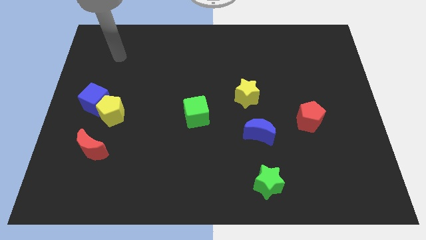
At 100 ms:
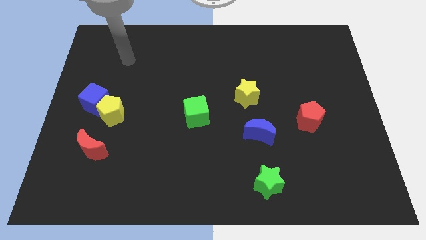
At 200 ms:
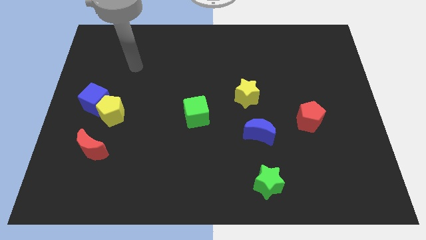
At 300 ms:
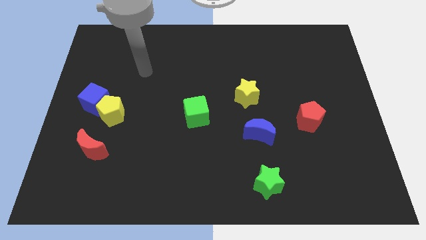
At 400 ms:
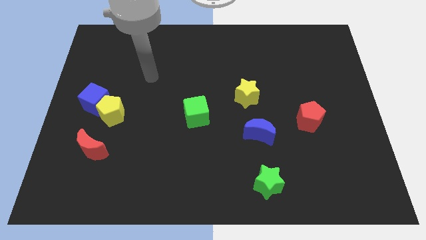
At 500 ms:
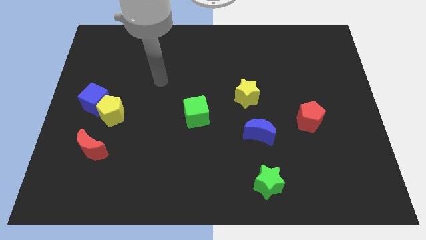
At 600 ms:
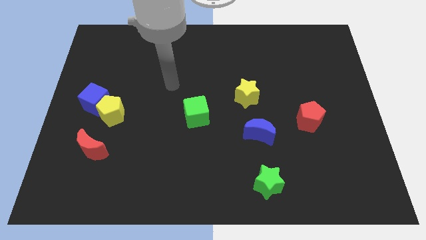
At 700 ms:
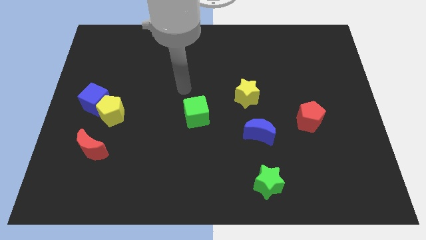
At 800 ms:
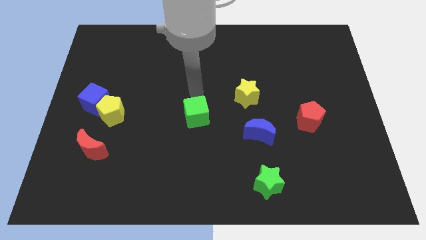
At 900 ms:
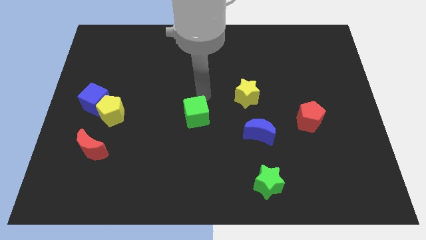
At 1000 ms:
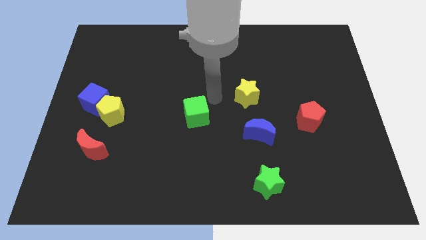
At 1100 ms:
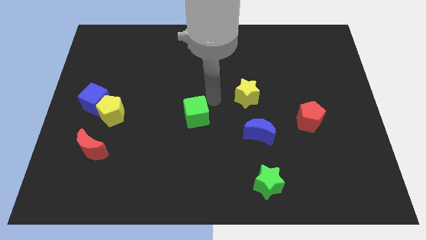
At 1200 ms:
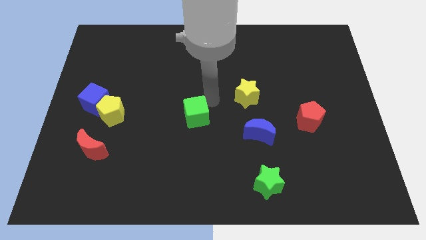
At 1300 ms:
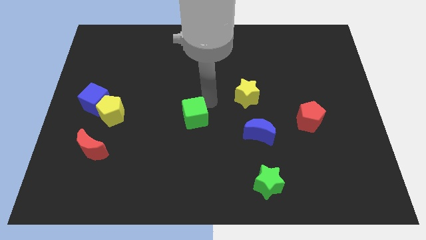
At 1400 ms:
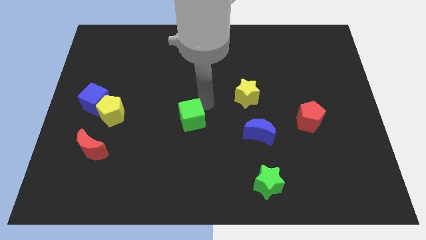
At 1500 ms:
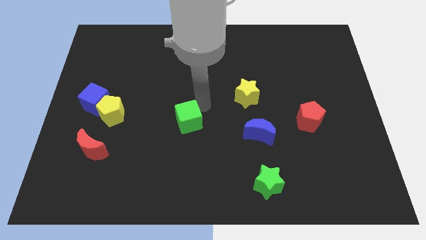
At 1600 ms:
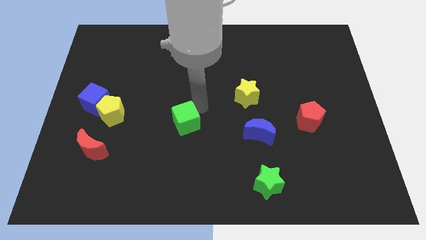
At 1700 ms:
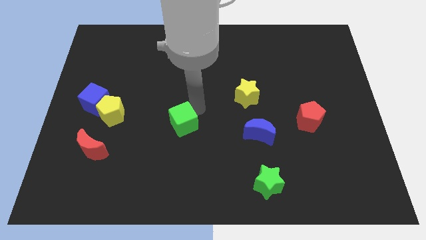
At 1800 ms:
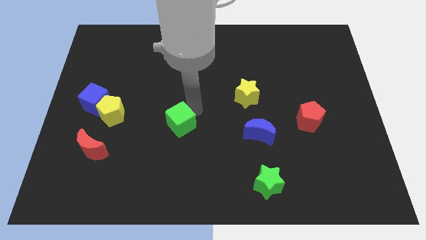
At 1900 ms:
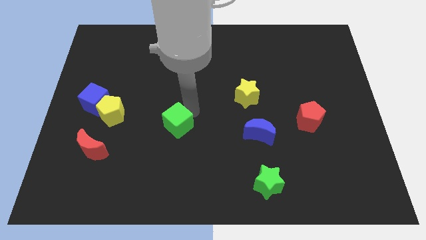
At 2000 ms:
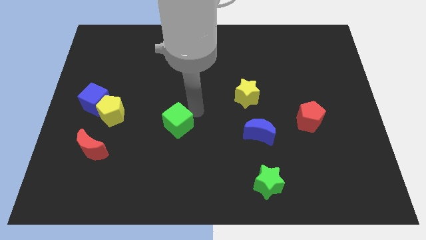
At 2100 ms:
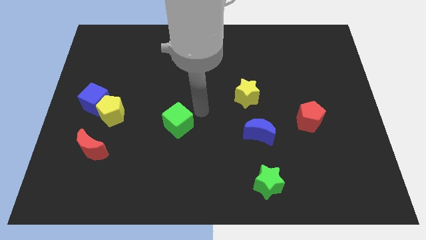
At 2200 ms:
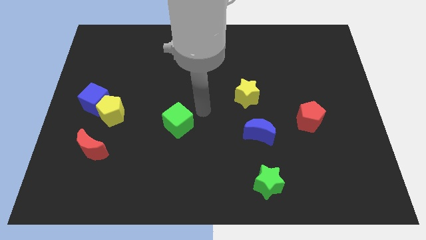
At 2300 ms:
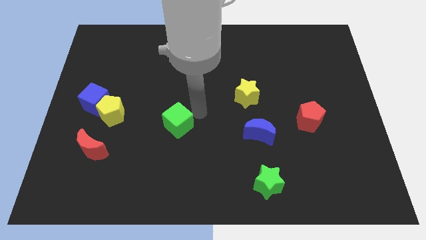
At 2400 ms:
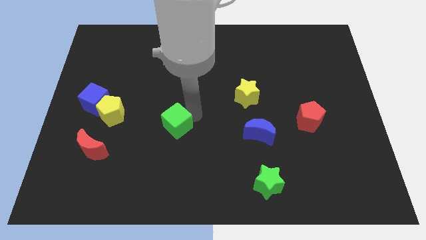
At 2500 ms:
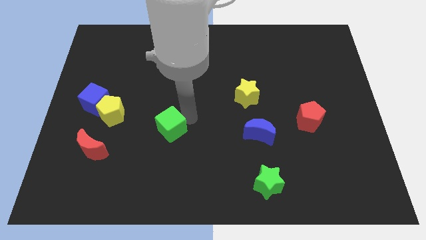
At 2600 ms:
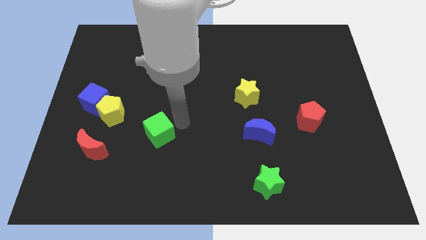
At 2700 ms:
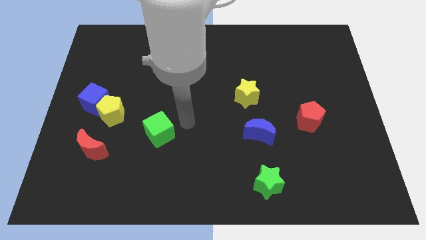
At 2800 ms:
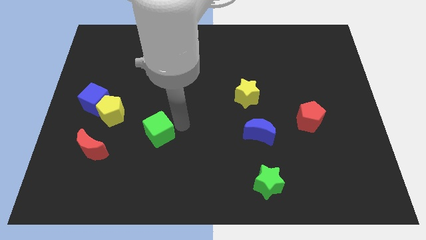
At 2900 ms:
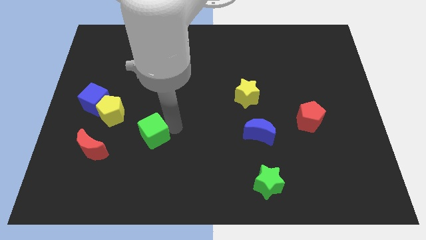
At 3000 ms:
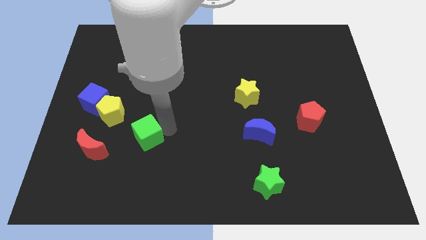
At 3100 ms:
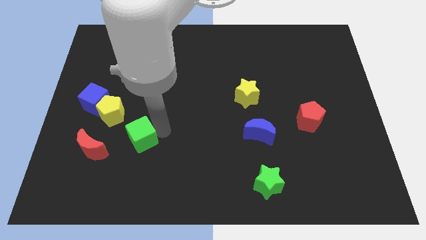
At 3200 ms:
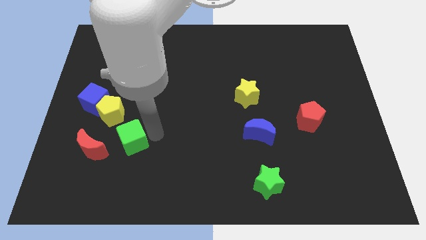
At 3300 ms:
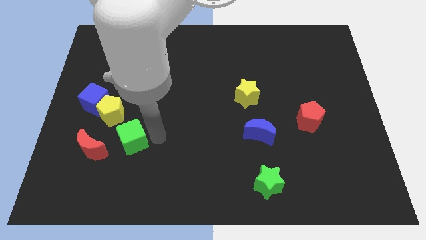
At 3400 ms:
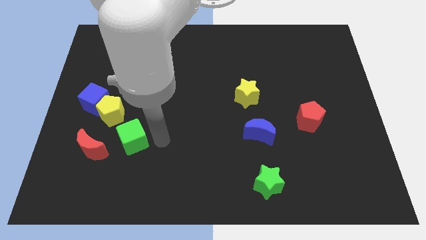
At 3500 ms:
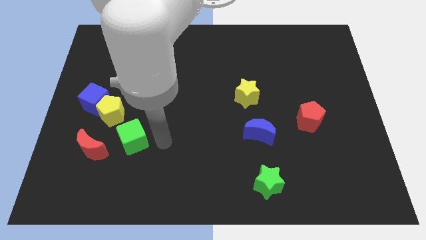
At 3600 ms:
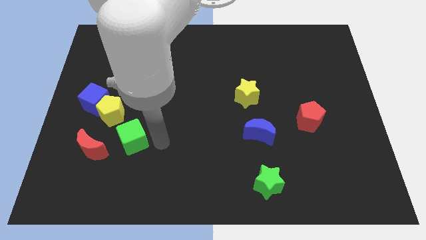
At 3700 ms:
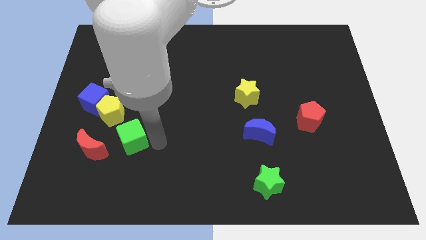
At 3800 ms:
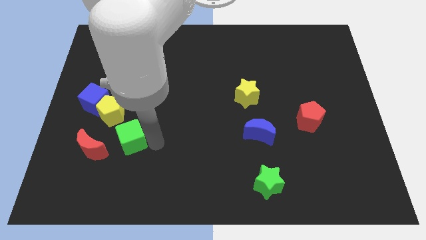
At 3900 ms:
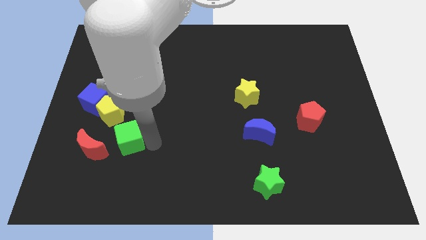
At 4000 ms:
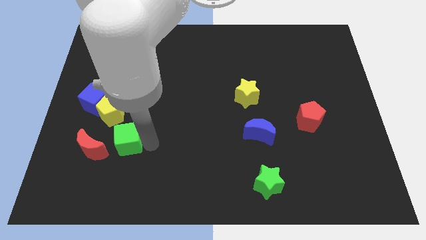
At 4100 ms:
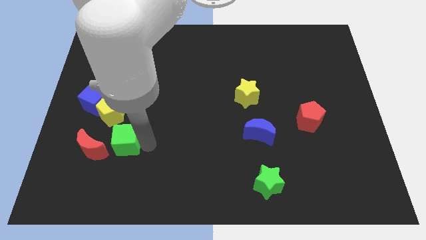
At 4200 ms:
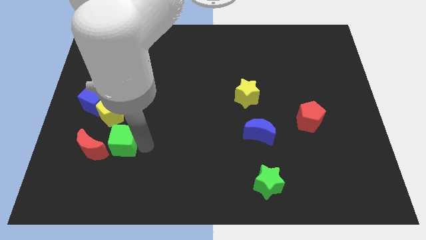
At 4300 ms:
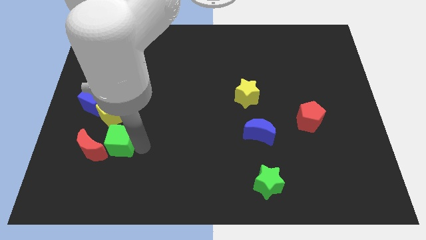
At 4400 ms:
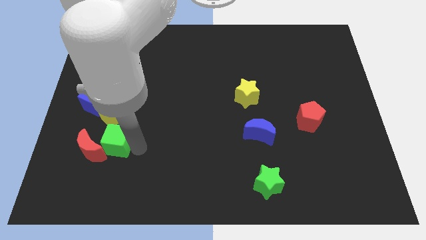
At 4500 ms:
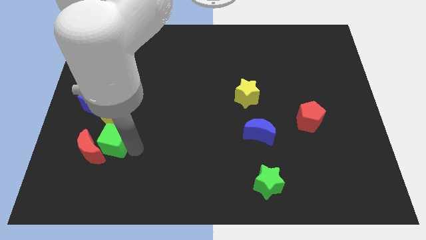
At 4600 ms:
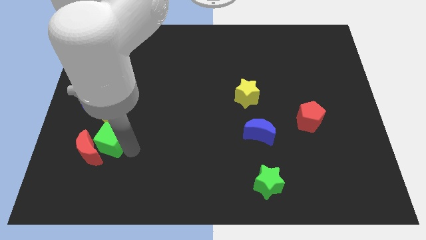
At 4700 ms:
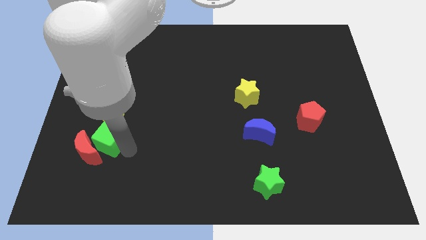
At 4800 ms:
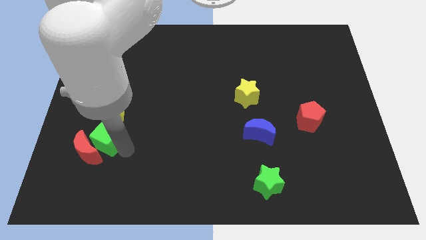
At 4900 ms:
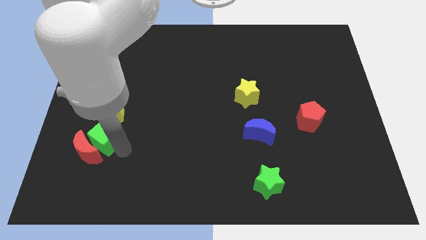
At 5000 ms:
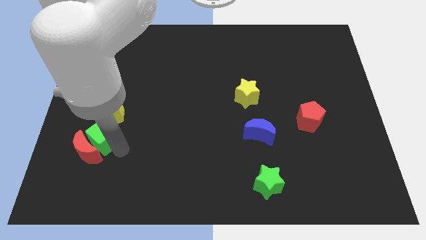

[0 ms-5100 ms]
put the green cube diagonally down and to the left of the yellow pentagon

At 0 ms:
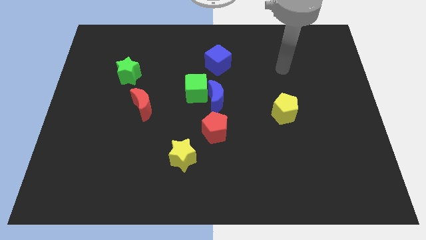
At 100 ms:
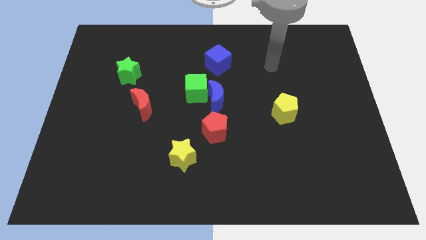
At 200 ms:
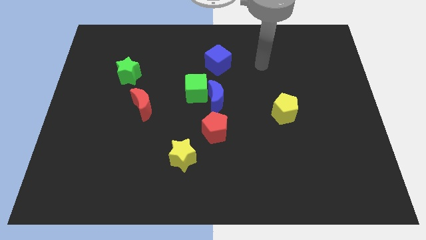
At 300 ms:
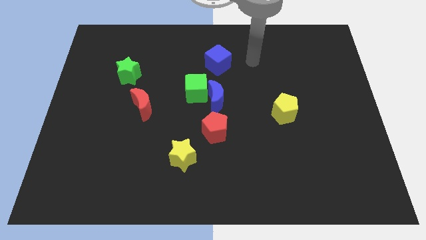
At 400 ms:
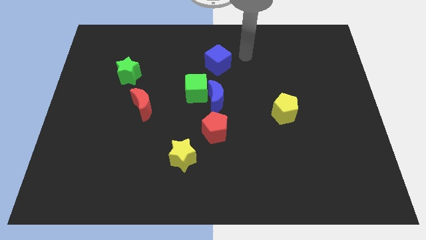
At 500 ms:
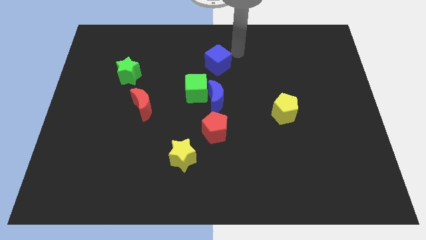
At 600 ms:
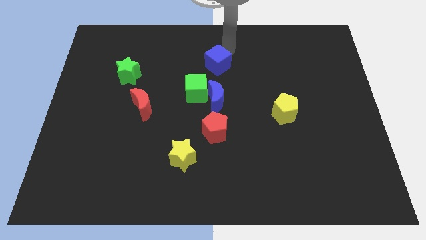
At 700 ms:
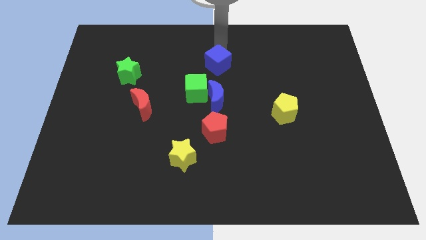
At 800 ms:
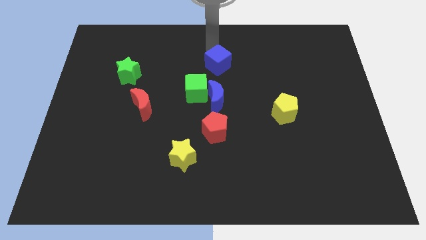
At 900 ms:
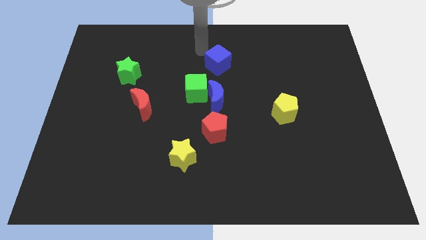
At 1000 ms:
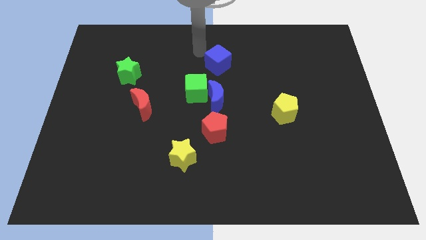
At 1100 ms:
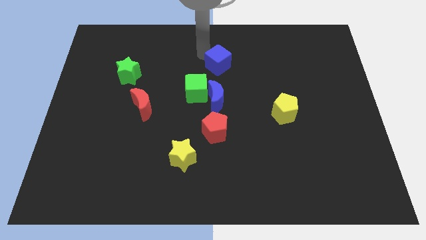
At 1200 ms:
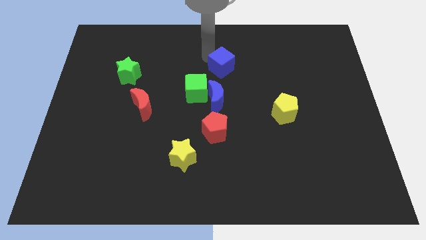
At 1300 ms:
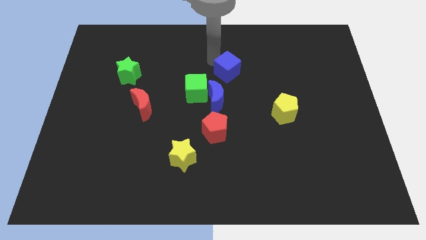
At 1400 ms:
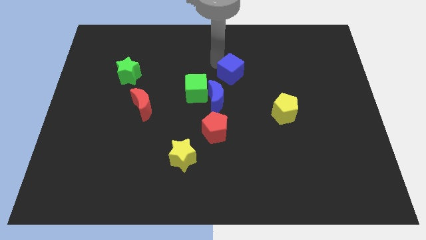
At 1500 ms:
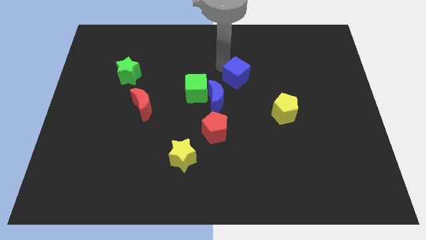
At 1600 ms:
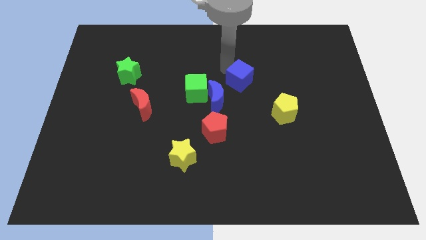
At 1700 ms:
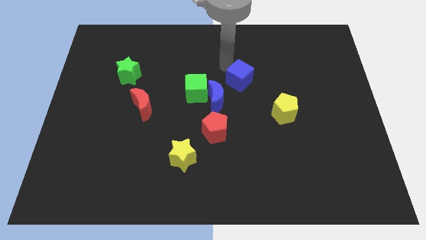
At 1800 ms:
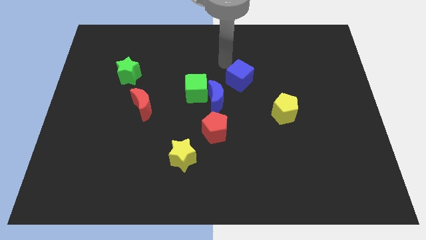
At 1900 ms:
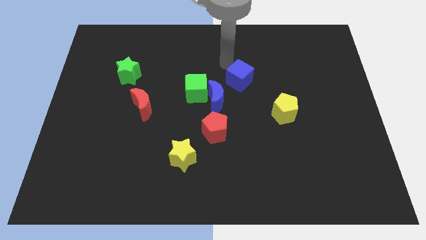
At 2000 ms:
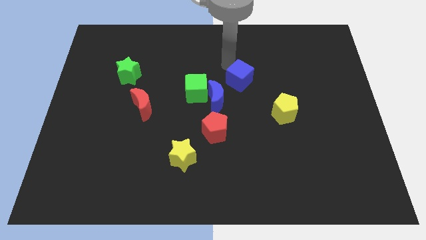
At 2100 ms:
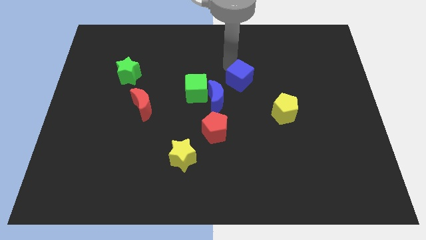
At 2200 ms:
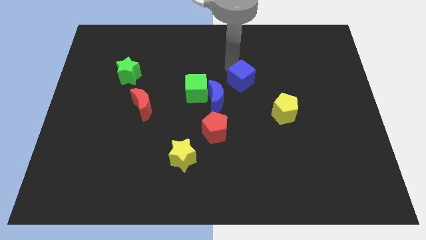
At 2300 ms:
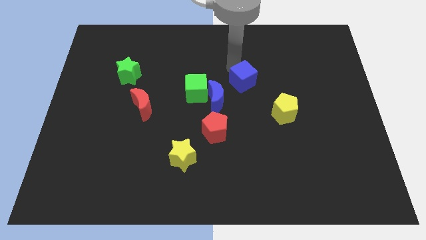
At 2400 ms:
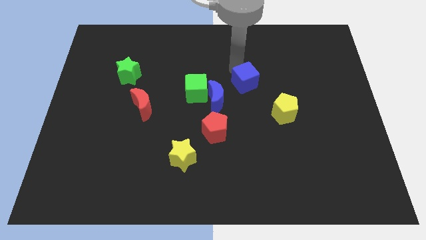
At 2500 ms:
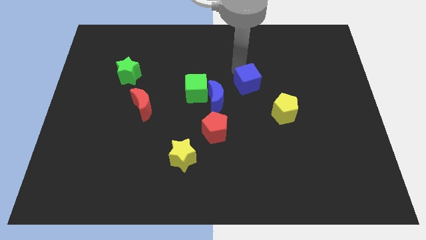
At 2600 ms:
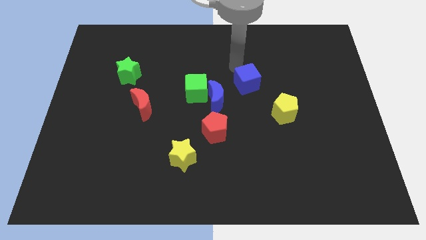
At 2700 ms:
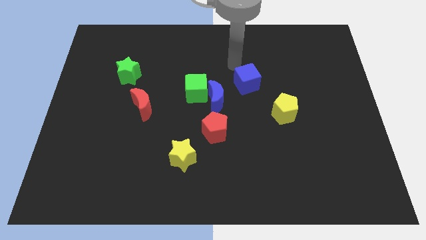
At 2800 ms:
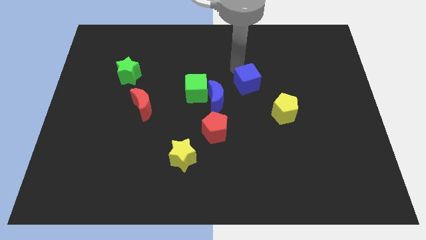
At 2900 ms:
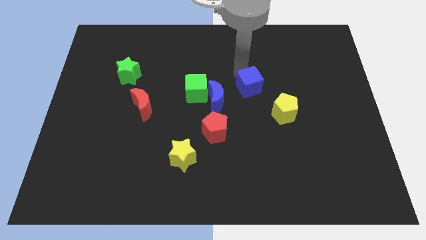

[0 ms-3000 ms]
slide the blue cube just right of the blue moon
